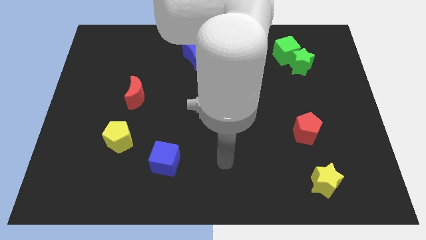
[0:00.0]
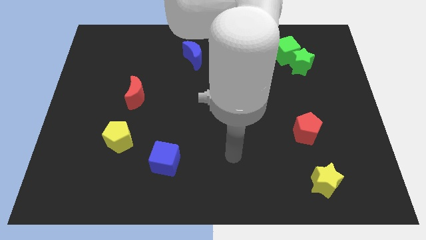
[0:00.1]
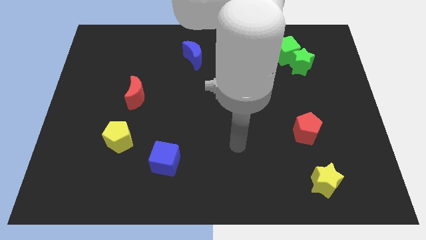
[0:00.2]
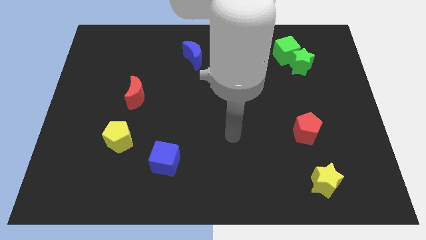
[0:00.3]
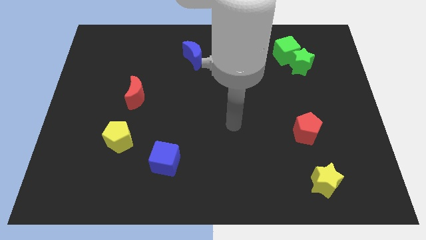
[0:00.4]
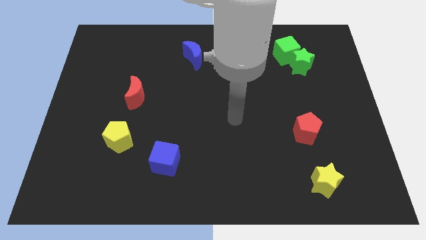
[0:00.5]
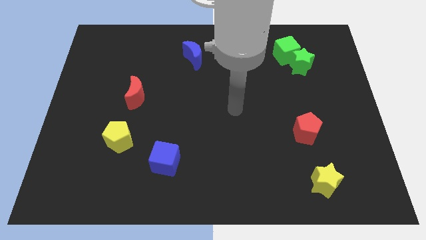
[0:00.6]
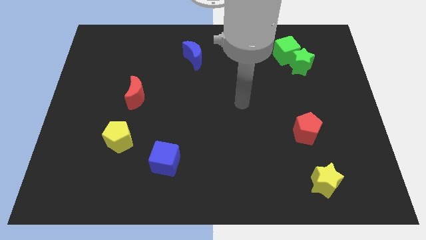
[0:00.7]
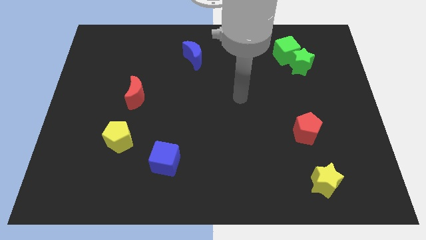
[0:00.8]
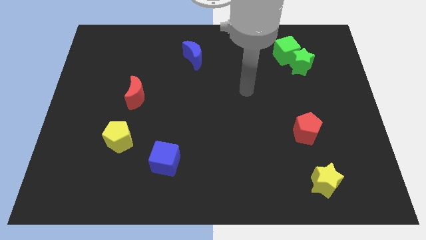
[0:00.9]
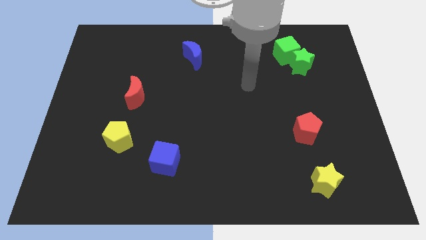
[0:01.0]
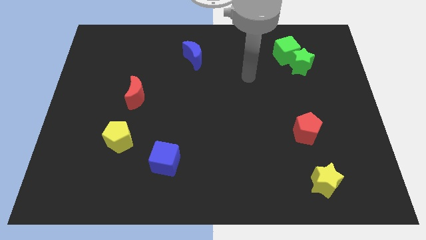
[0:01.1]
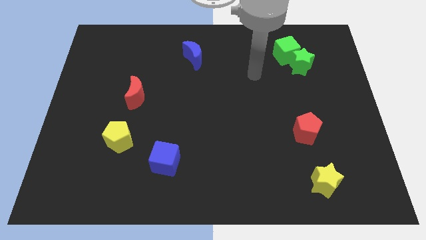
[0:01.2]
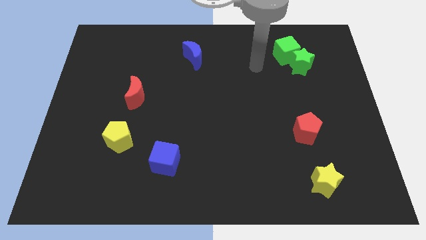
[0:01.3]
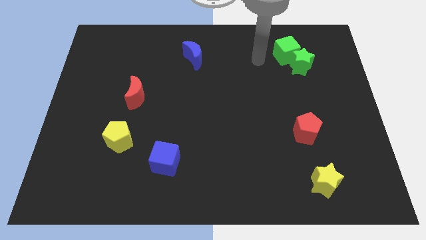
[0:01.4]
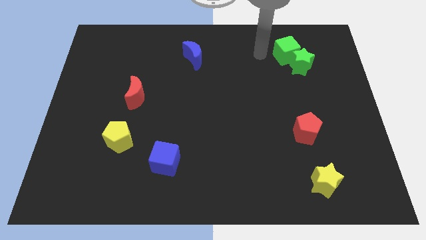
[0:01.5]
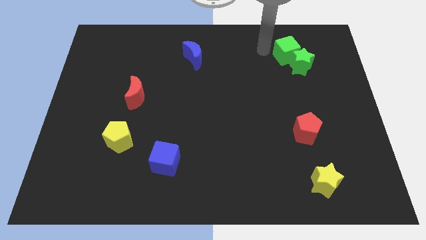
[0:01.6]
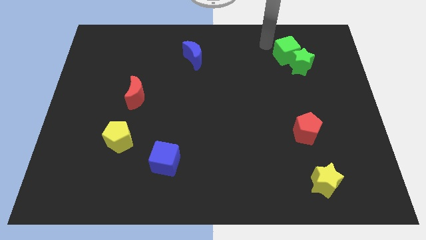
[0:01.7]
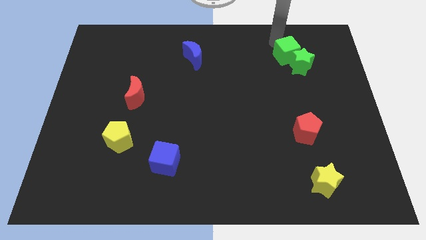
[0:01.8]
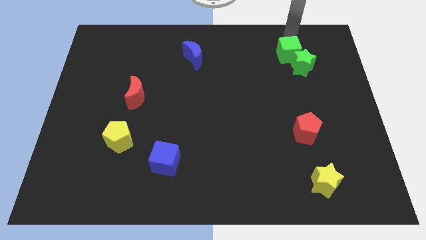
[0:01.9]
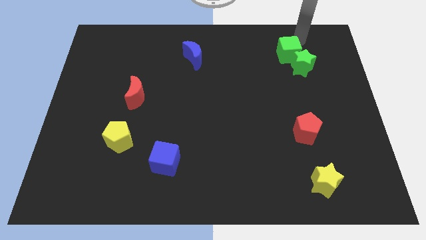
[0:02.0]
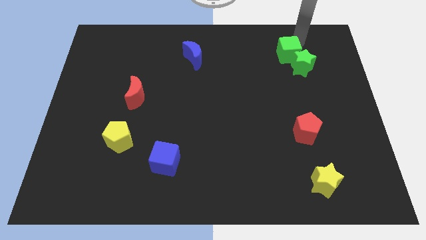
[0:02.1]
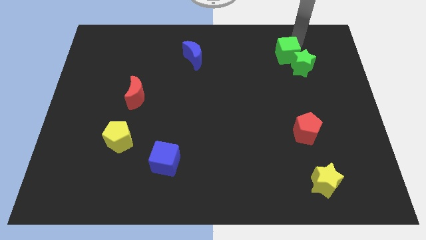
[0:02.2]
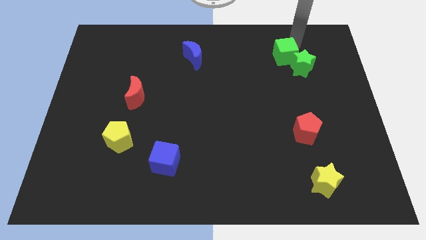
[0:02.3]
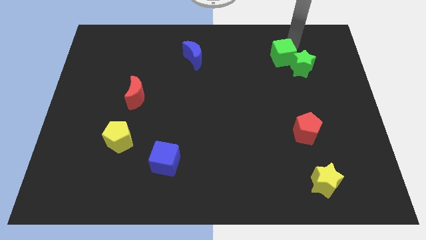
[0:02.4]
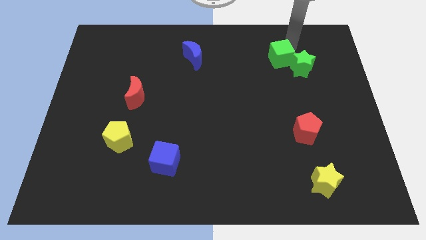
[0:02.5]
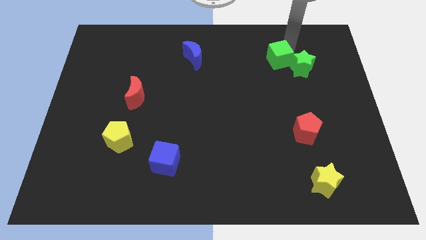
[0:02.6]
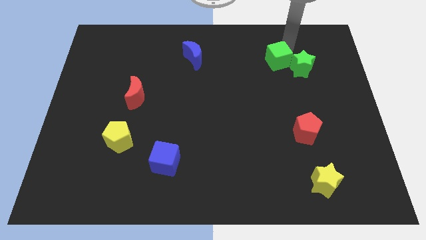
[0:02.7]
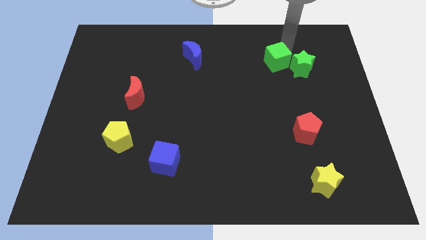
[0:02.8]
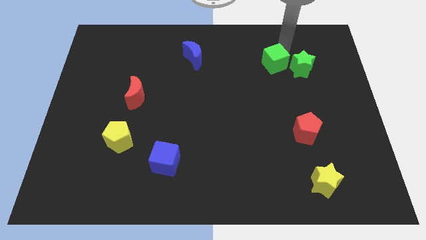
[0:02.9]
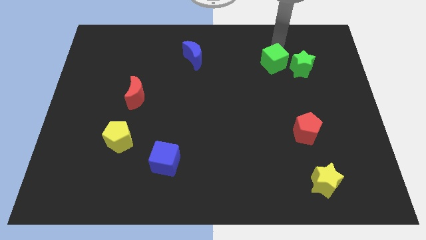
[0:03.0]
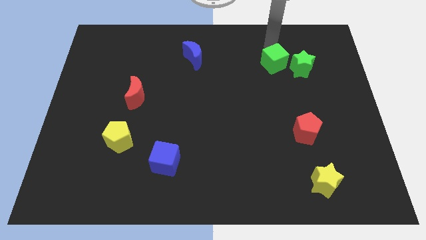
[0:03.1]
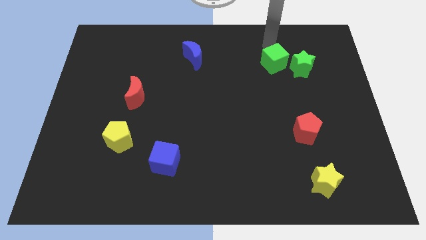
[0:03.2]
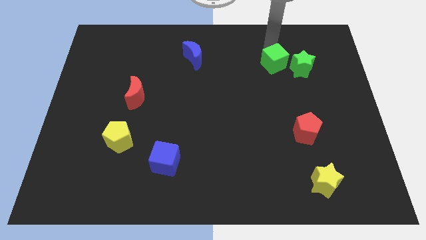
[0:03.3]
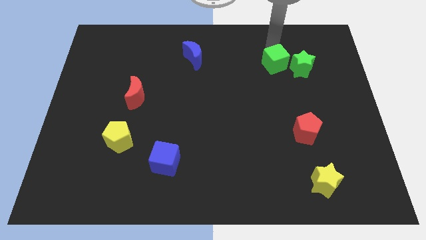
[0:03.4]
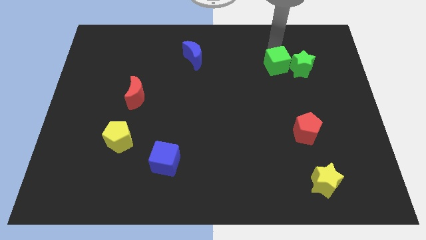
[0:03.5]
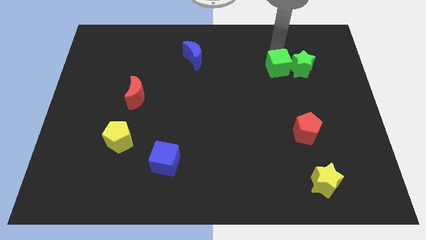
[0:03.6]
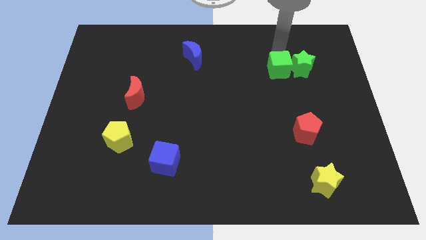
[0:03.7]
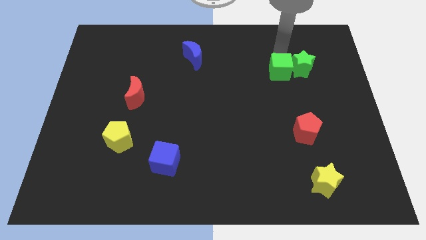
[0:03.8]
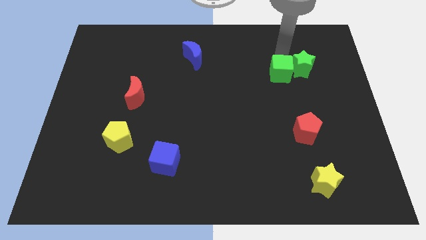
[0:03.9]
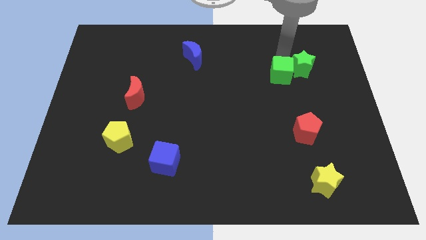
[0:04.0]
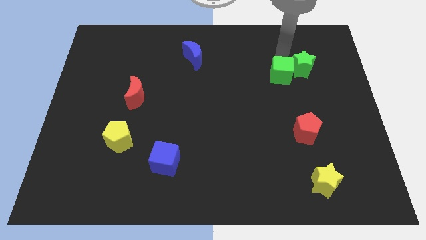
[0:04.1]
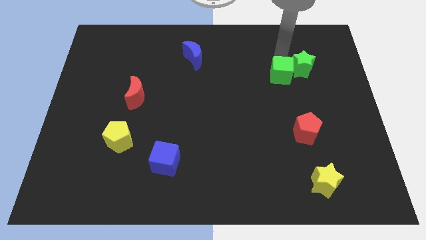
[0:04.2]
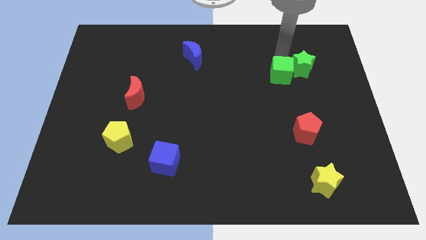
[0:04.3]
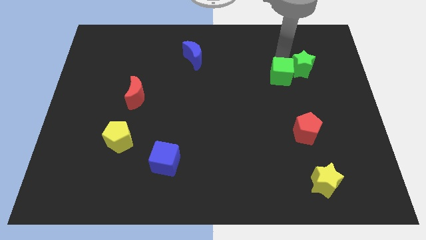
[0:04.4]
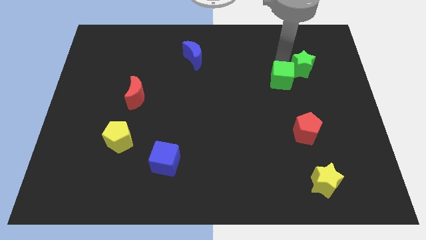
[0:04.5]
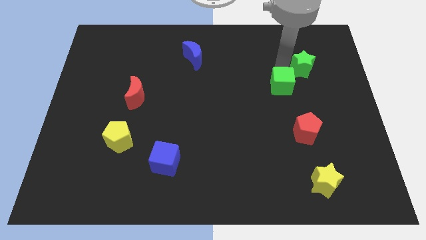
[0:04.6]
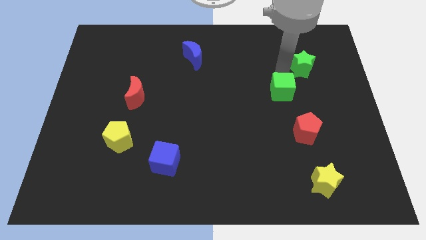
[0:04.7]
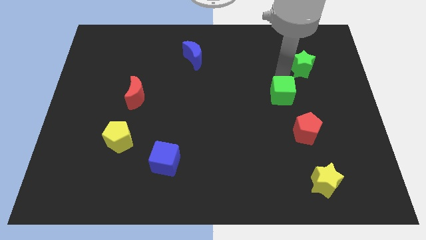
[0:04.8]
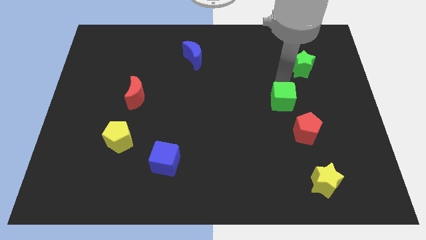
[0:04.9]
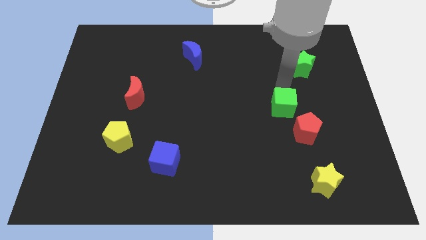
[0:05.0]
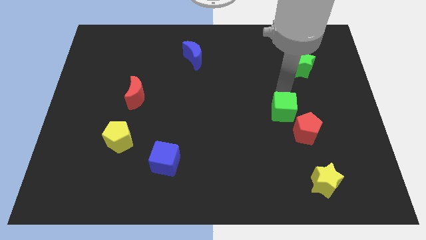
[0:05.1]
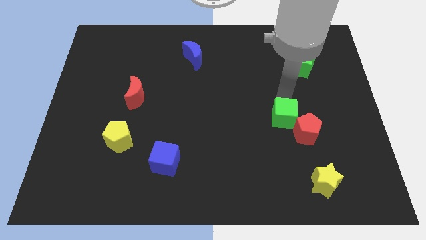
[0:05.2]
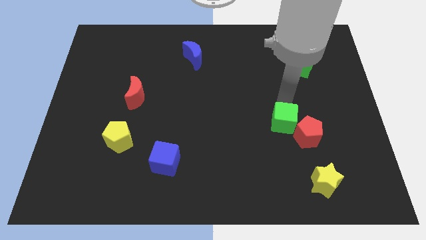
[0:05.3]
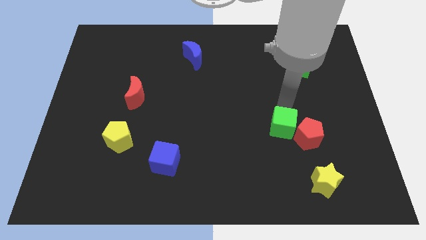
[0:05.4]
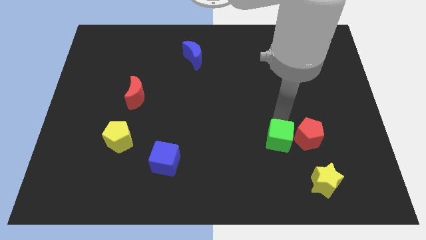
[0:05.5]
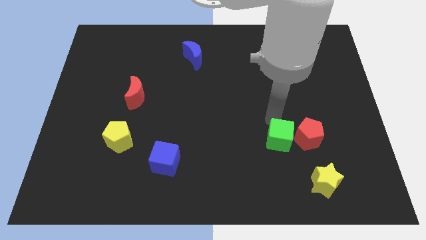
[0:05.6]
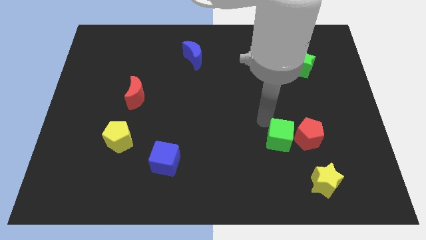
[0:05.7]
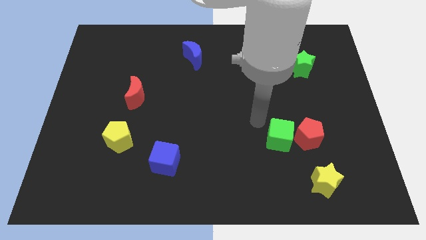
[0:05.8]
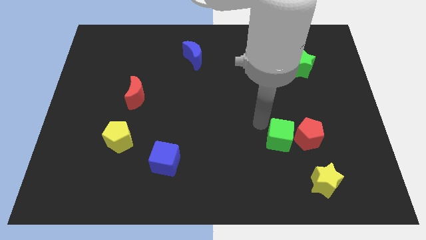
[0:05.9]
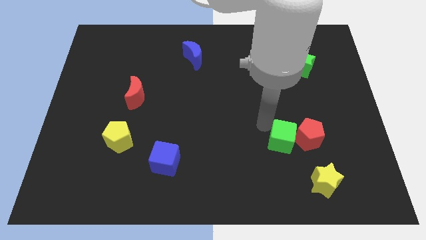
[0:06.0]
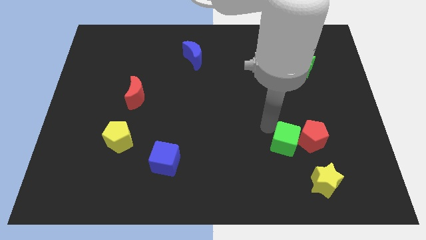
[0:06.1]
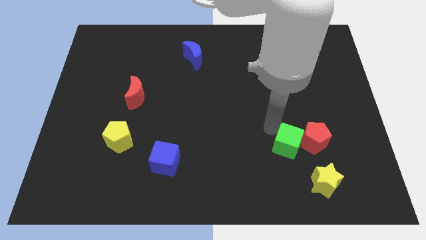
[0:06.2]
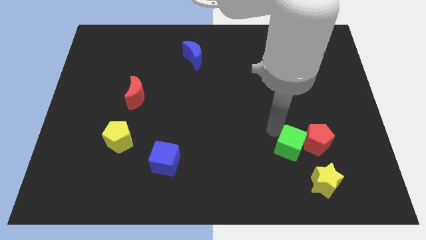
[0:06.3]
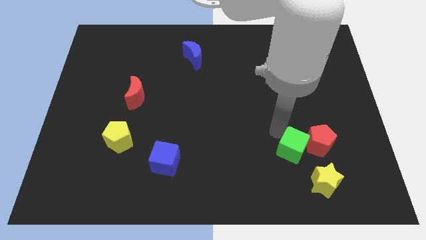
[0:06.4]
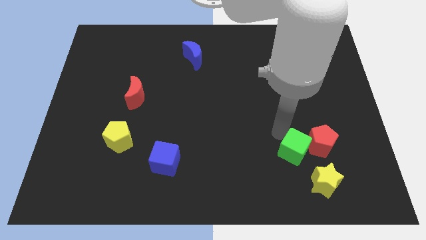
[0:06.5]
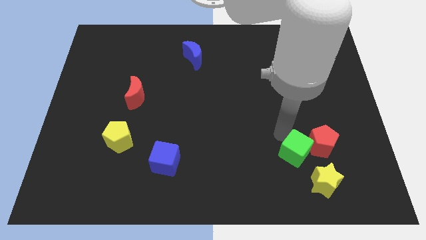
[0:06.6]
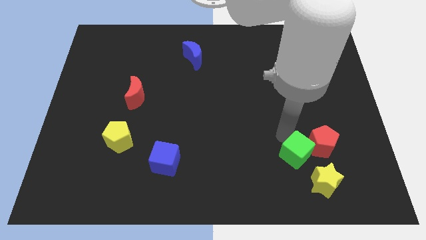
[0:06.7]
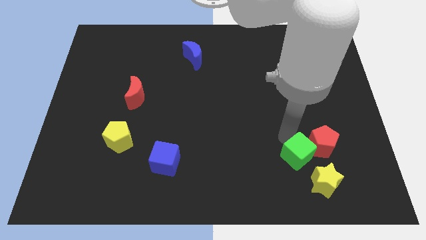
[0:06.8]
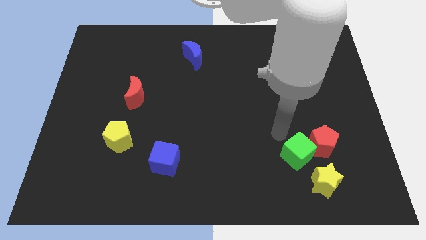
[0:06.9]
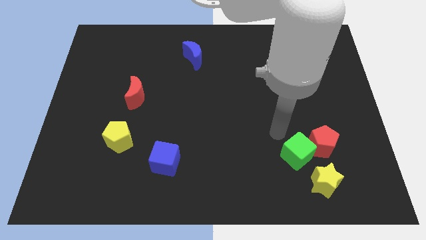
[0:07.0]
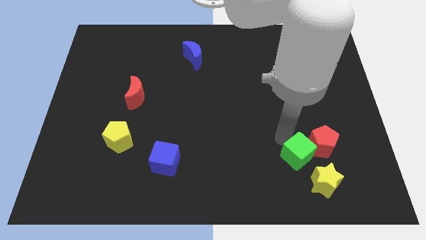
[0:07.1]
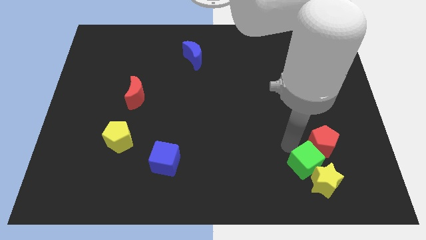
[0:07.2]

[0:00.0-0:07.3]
move the green cube towards the yellow star

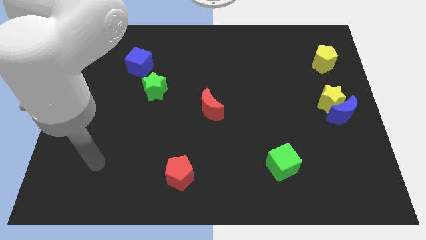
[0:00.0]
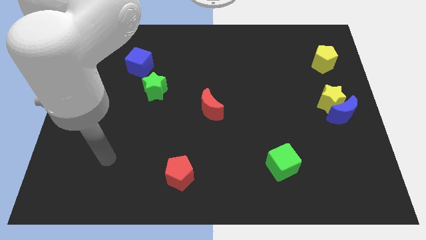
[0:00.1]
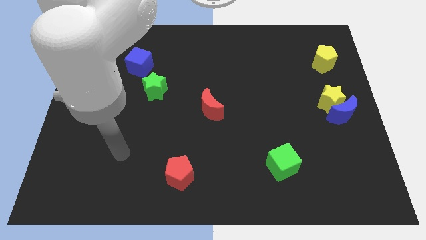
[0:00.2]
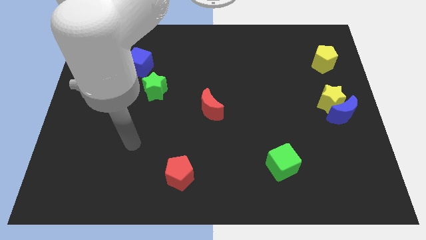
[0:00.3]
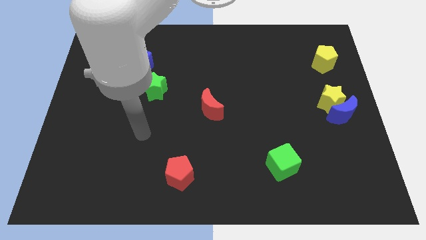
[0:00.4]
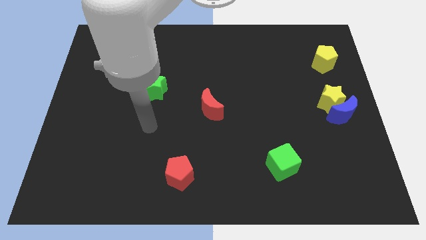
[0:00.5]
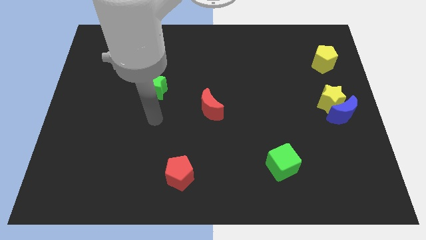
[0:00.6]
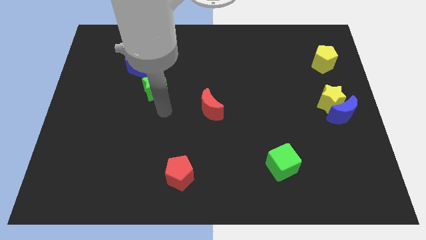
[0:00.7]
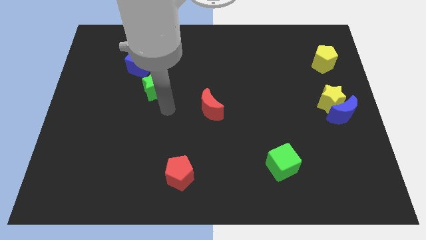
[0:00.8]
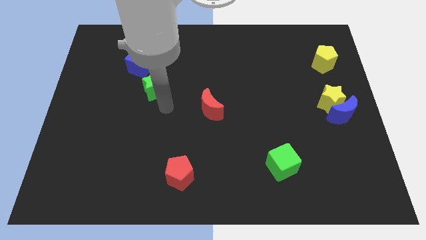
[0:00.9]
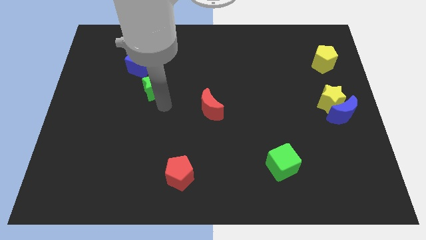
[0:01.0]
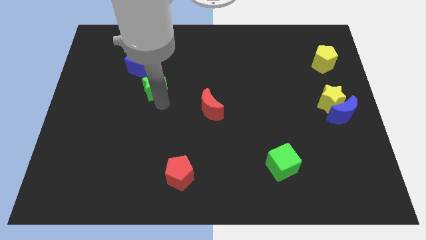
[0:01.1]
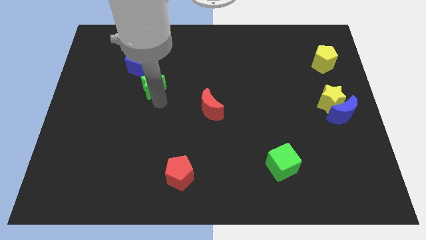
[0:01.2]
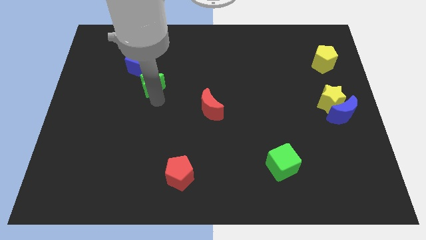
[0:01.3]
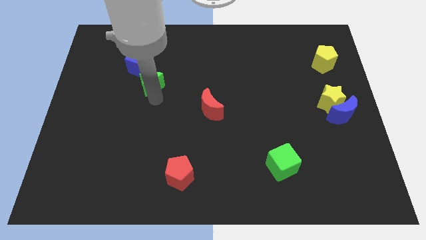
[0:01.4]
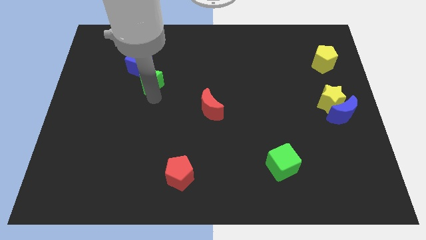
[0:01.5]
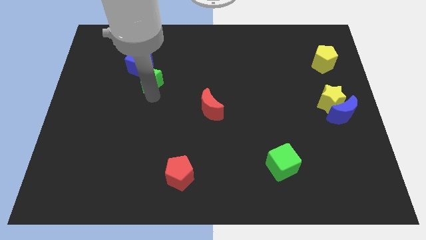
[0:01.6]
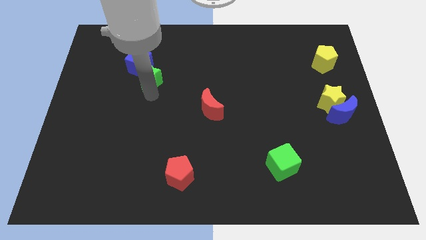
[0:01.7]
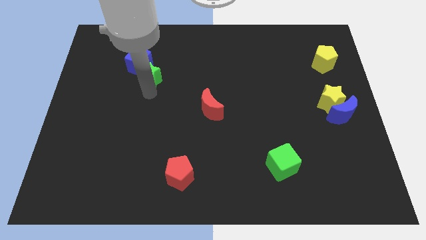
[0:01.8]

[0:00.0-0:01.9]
slide the green star next to the blue cube
